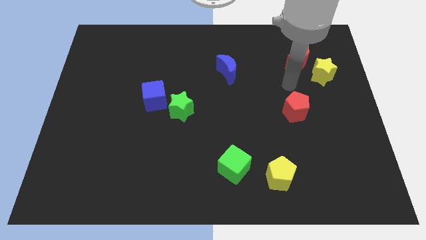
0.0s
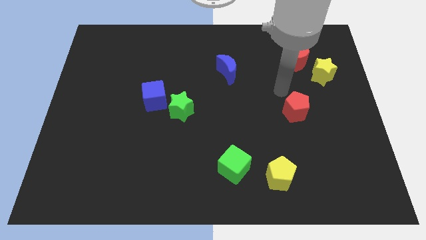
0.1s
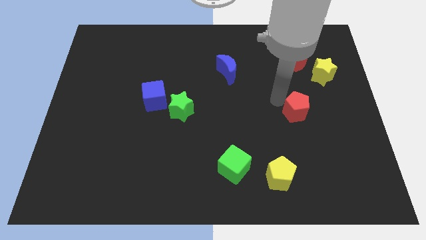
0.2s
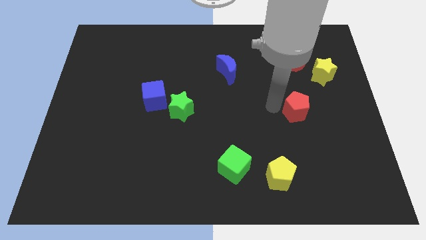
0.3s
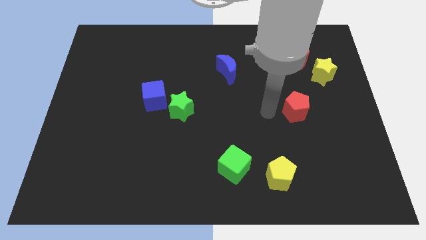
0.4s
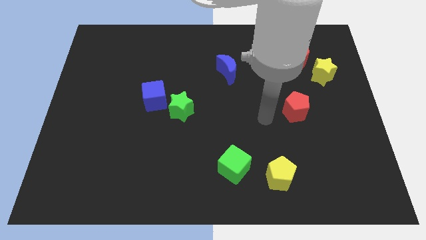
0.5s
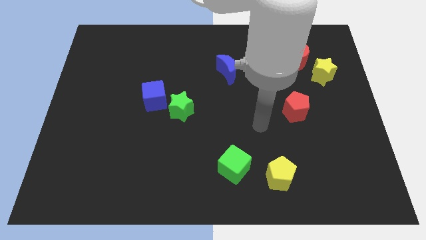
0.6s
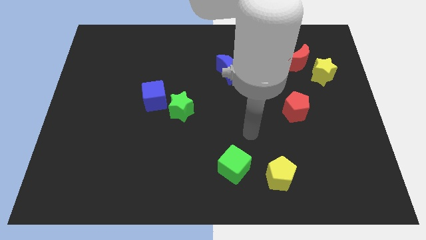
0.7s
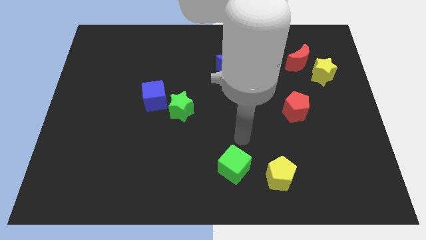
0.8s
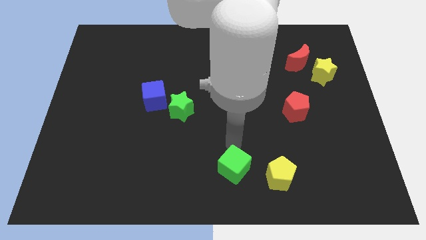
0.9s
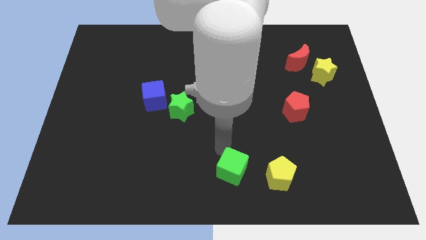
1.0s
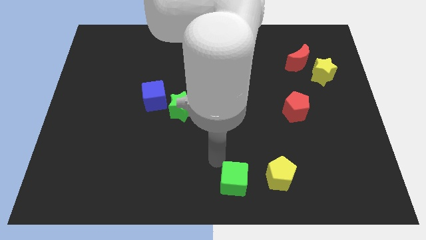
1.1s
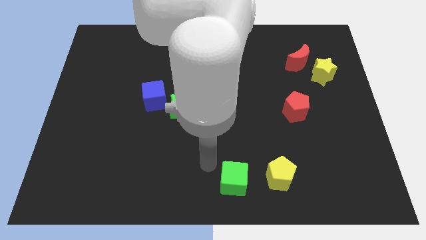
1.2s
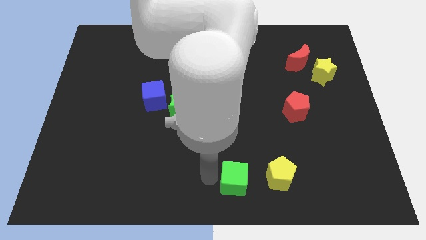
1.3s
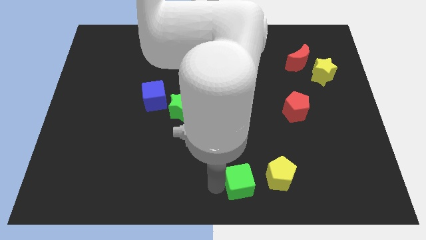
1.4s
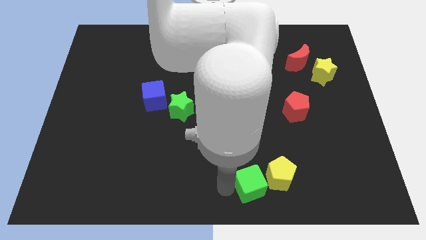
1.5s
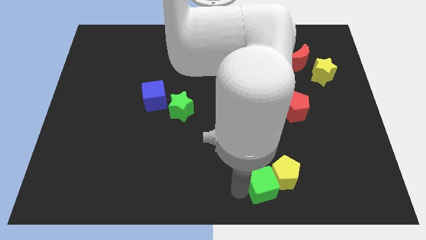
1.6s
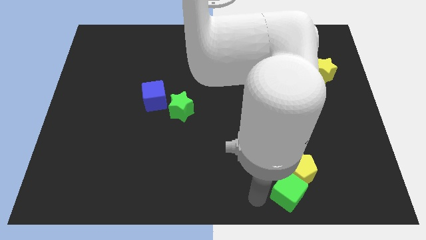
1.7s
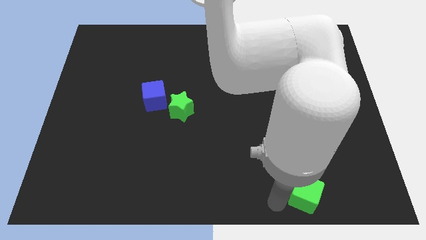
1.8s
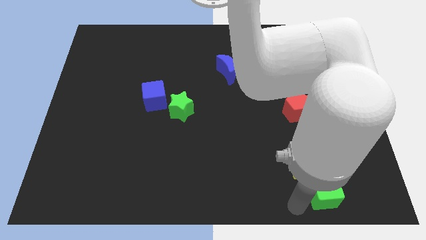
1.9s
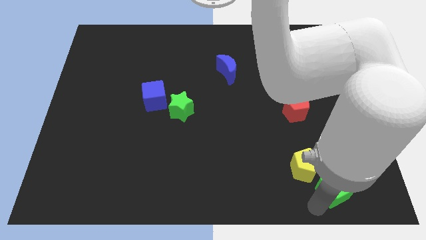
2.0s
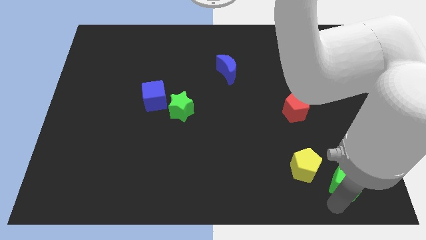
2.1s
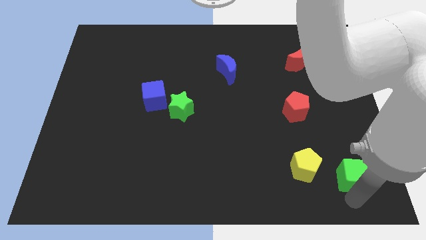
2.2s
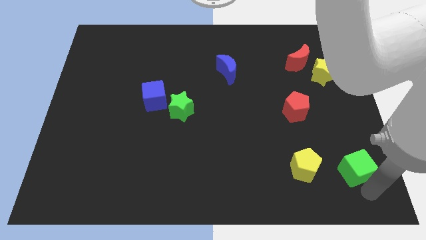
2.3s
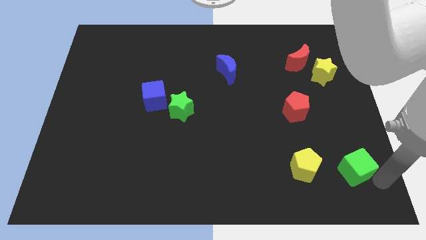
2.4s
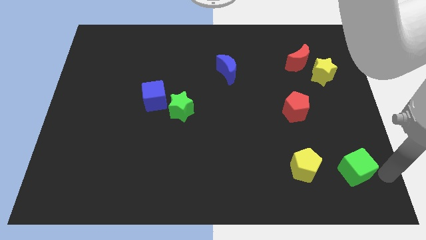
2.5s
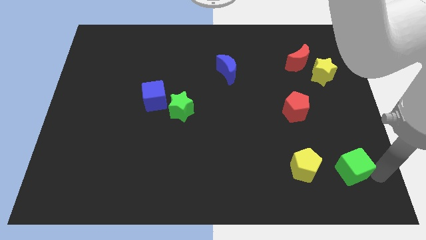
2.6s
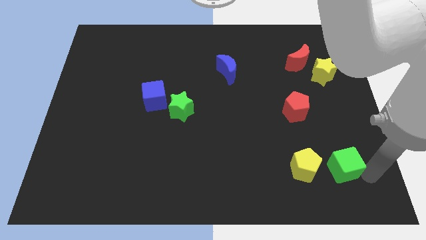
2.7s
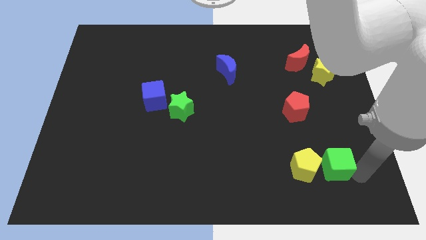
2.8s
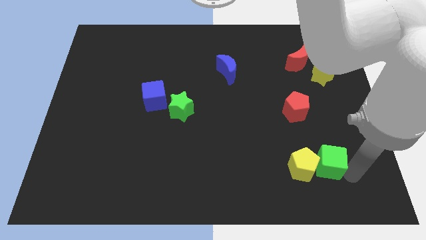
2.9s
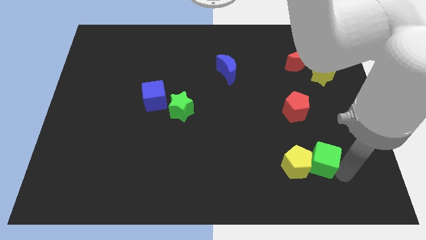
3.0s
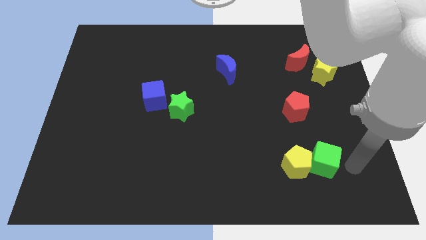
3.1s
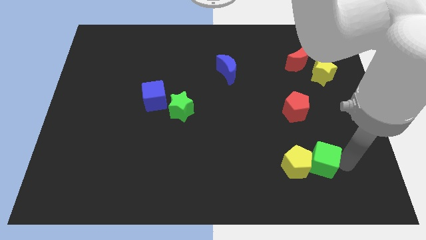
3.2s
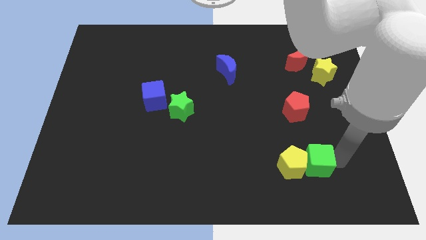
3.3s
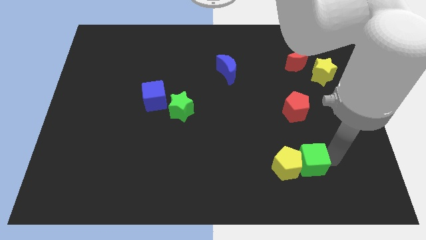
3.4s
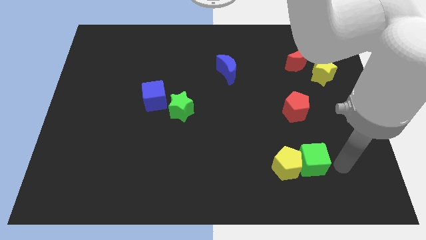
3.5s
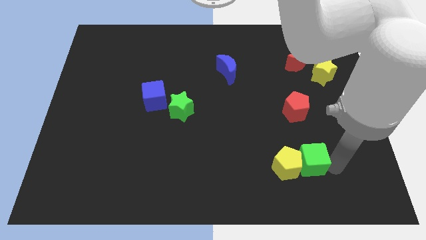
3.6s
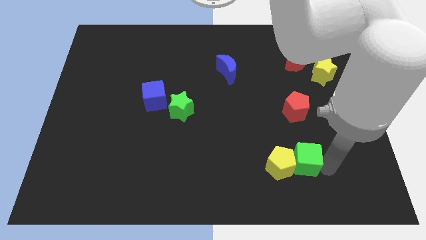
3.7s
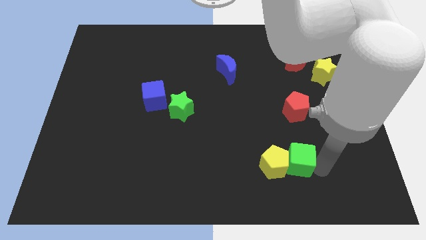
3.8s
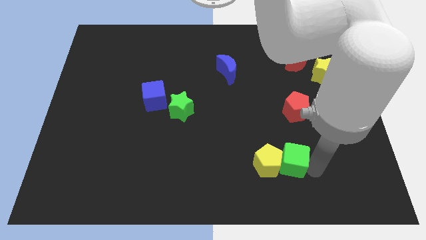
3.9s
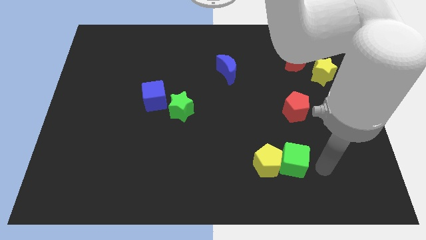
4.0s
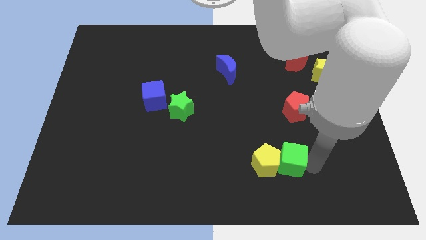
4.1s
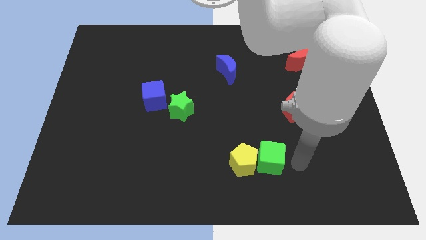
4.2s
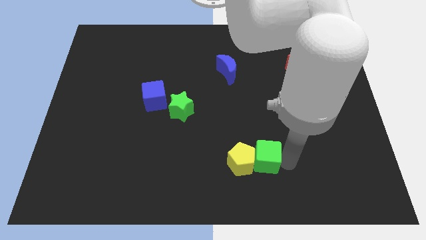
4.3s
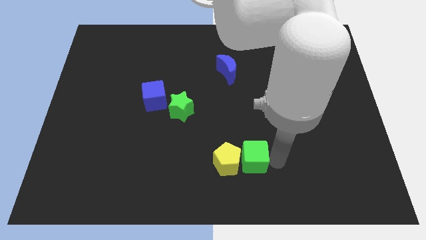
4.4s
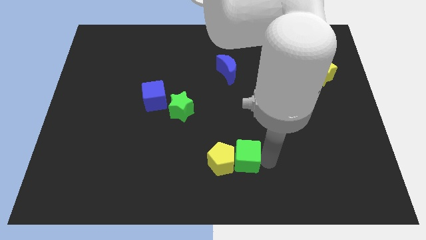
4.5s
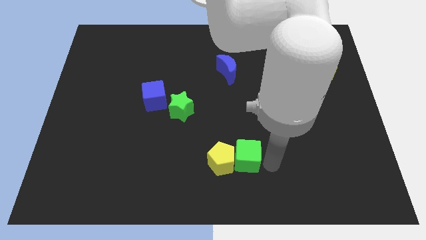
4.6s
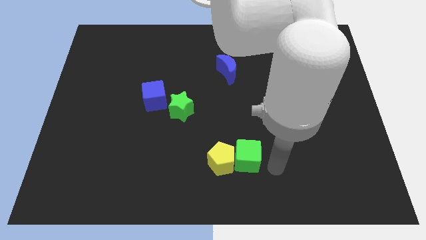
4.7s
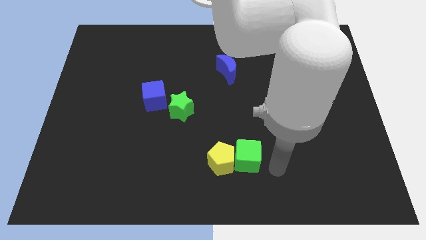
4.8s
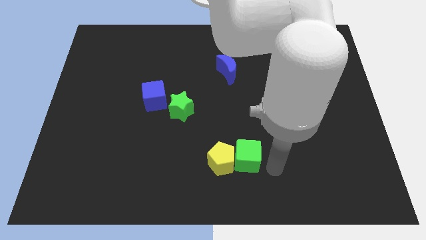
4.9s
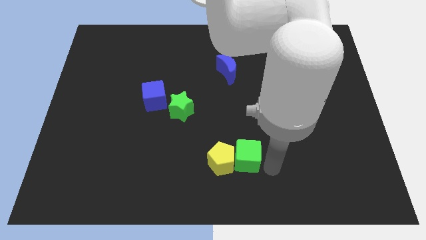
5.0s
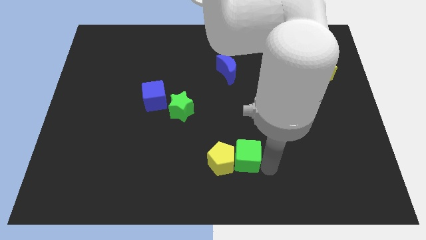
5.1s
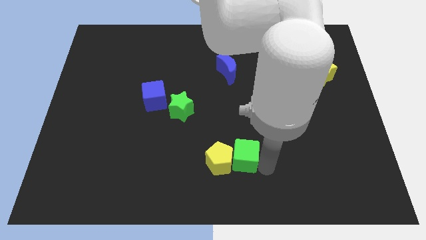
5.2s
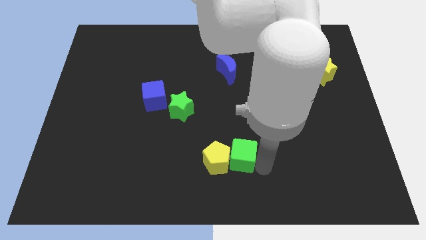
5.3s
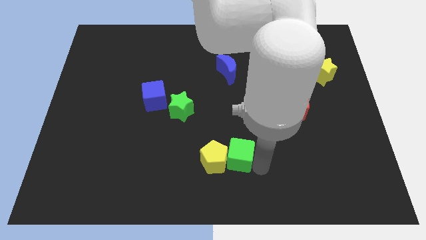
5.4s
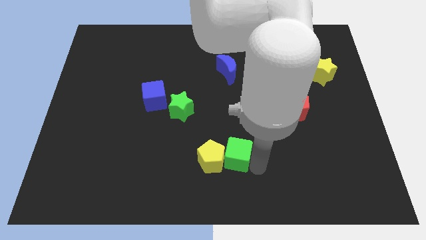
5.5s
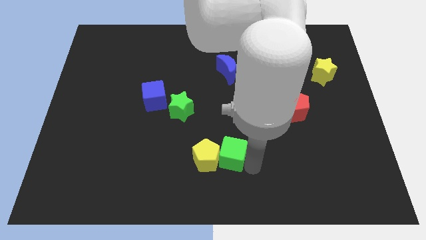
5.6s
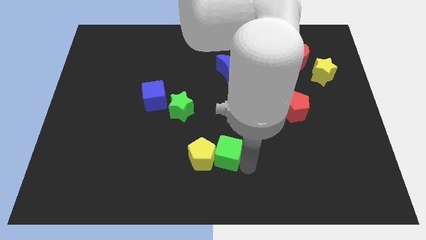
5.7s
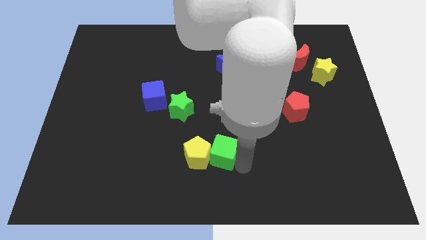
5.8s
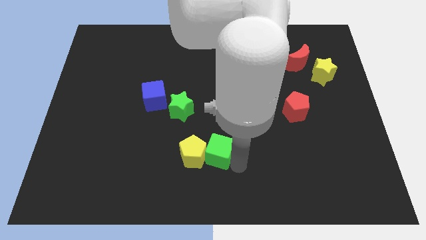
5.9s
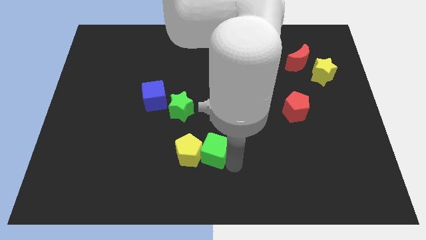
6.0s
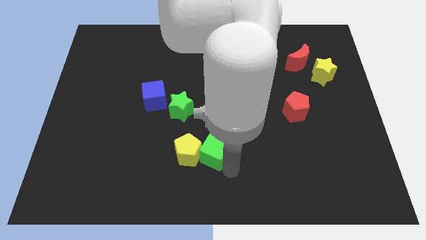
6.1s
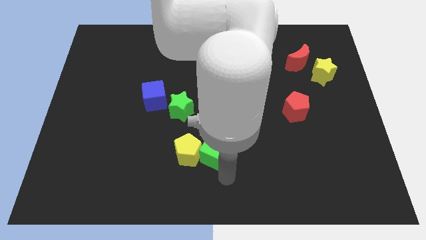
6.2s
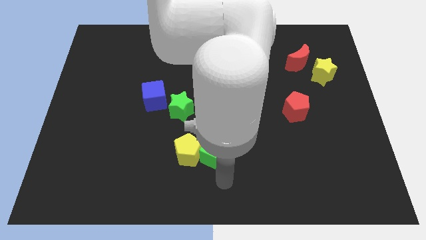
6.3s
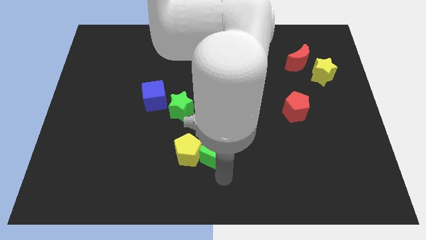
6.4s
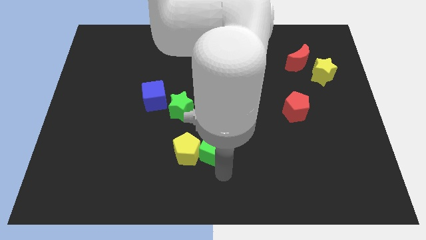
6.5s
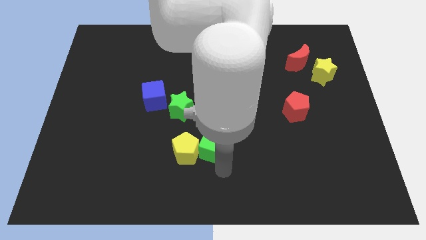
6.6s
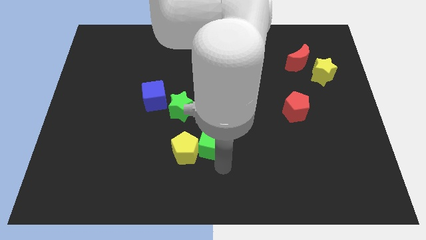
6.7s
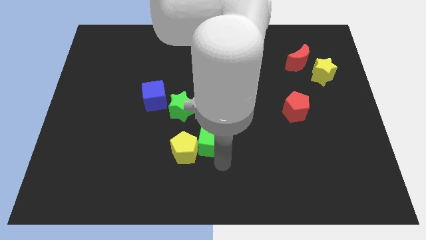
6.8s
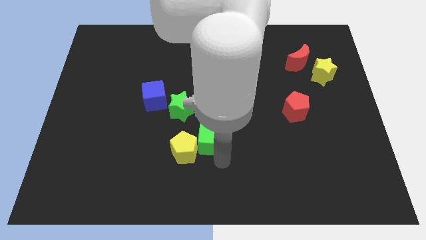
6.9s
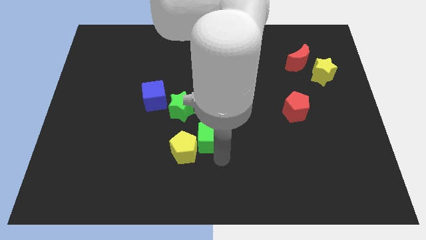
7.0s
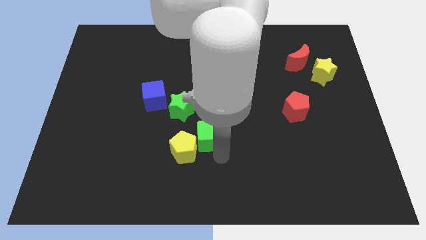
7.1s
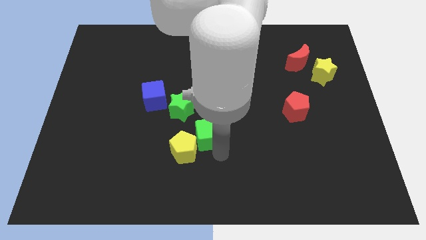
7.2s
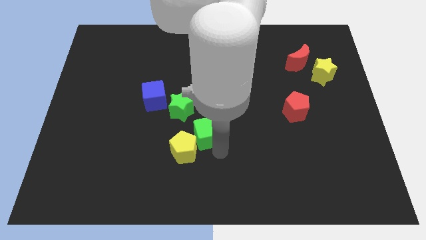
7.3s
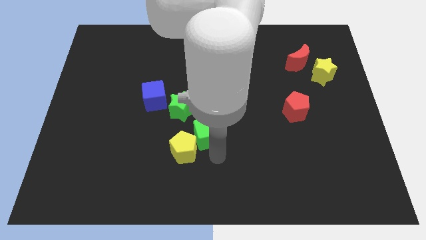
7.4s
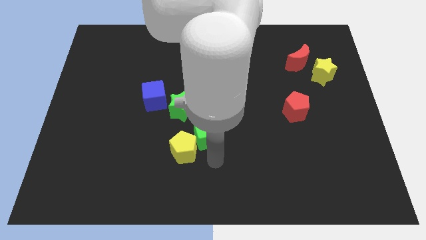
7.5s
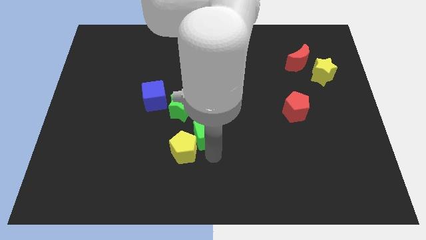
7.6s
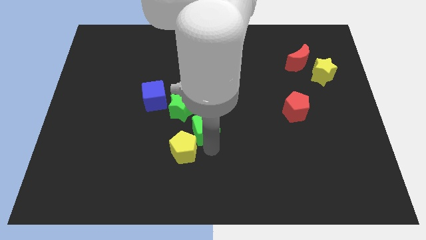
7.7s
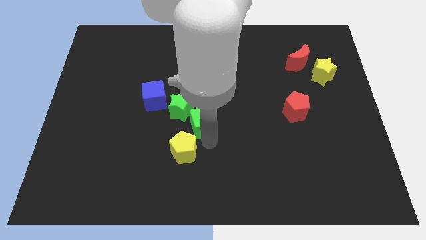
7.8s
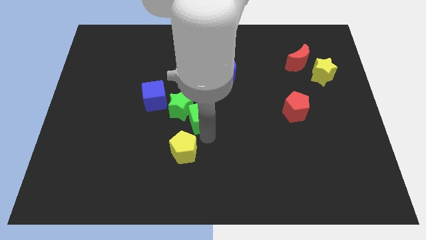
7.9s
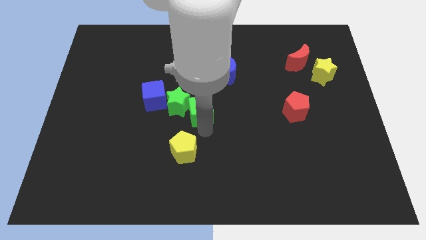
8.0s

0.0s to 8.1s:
slide the green cube to the right side of the blue cube
